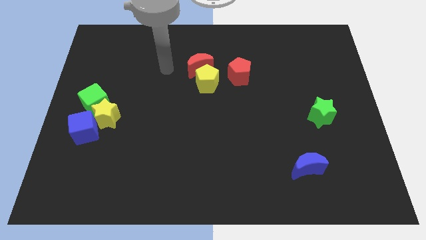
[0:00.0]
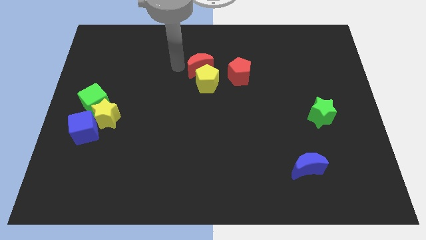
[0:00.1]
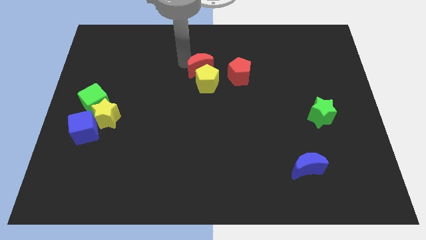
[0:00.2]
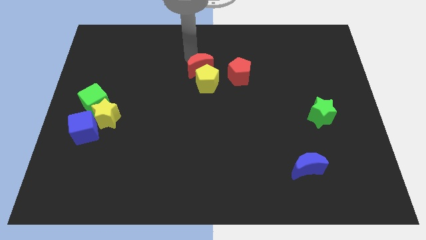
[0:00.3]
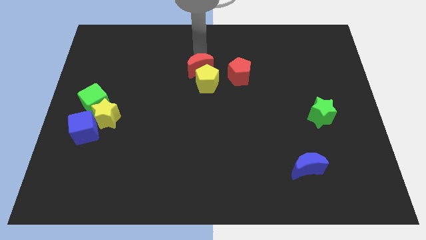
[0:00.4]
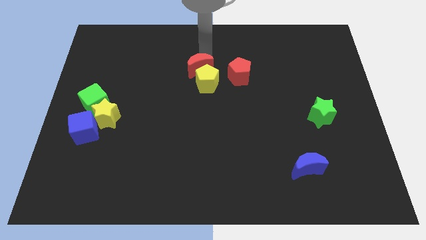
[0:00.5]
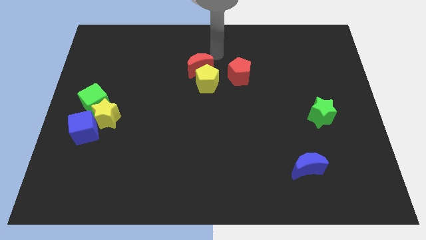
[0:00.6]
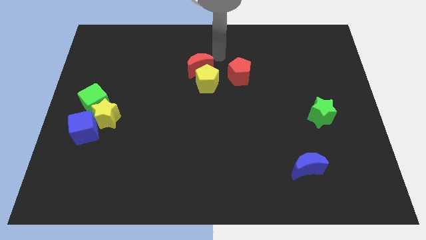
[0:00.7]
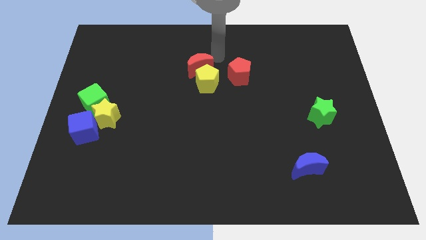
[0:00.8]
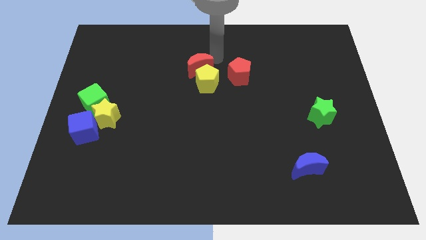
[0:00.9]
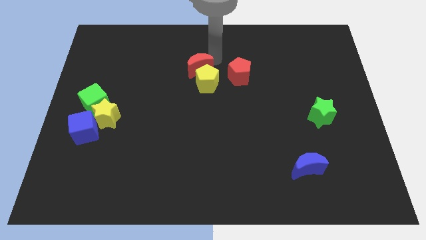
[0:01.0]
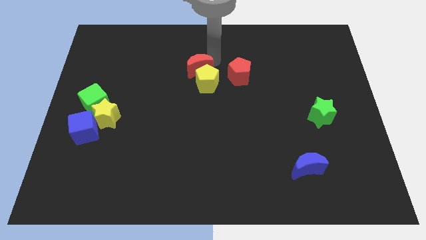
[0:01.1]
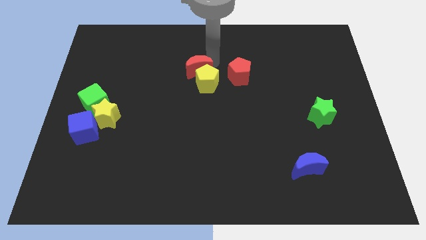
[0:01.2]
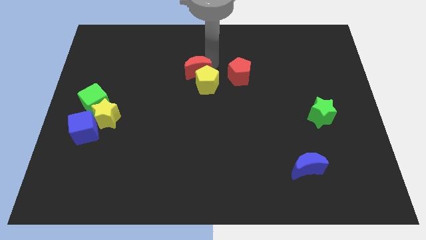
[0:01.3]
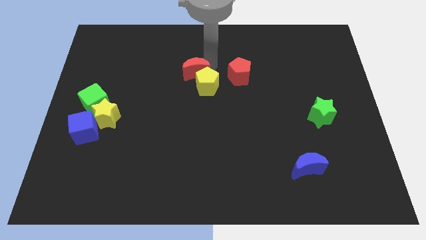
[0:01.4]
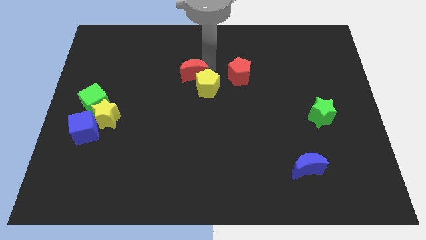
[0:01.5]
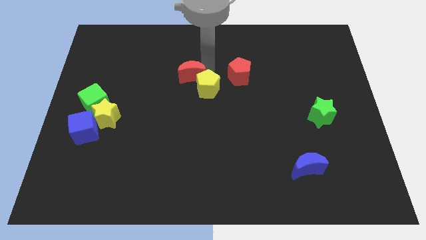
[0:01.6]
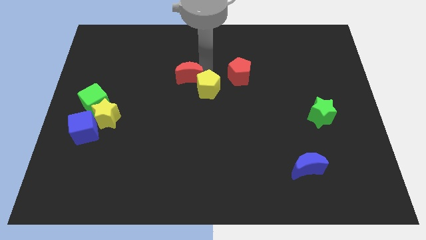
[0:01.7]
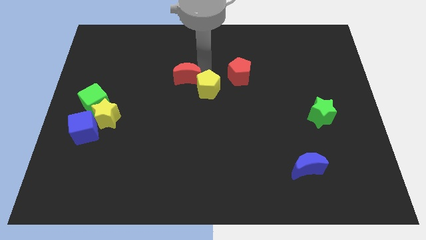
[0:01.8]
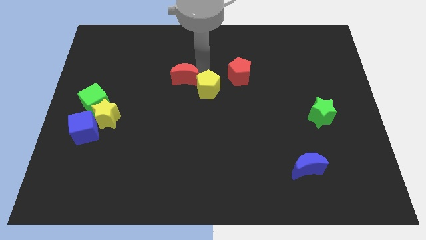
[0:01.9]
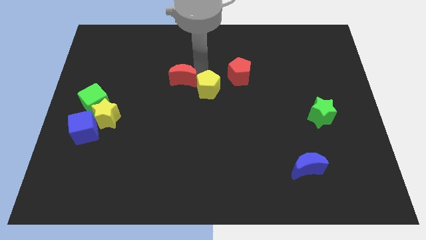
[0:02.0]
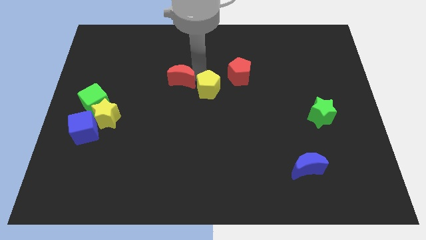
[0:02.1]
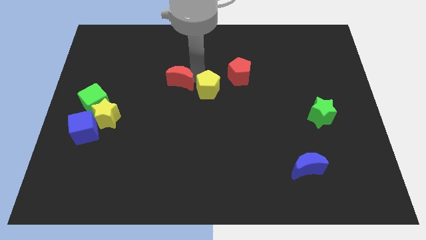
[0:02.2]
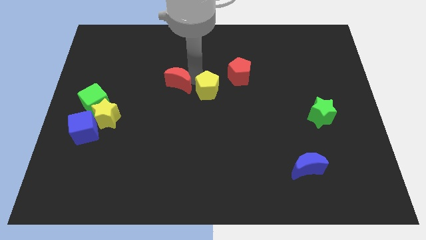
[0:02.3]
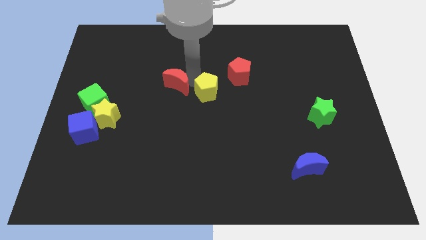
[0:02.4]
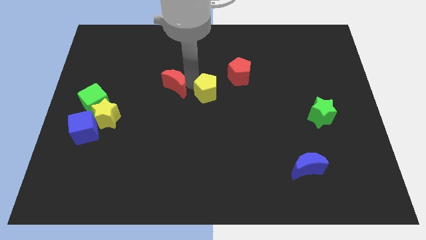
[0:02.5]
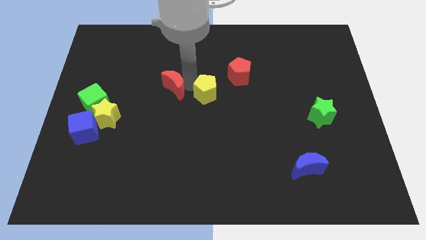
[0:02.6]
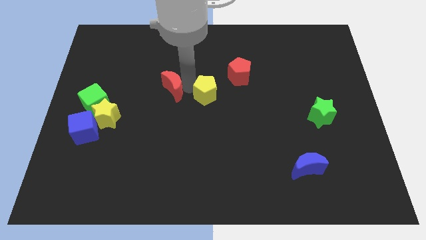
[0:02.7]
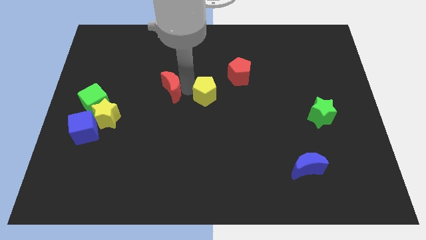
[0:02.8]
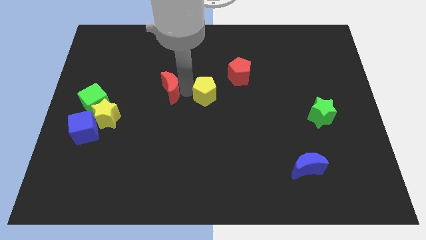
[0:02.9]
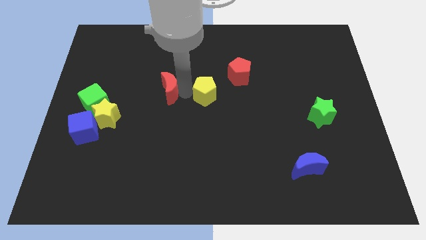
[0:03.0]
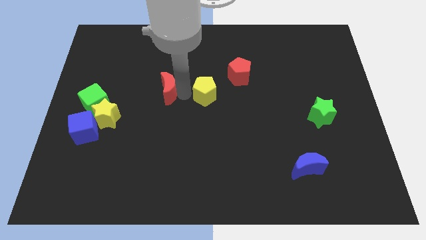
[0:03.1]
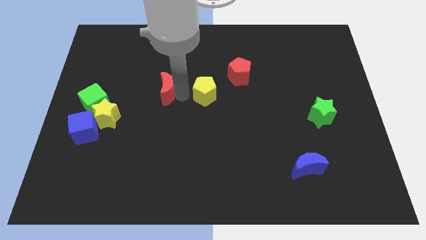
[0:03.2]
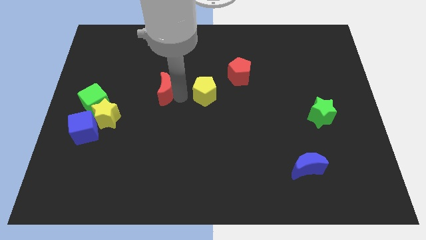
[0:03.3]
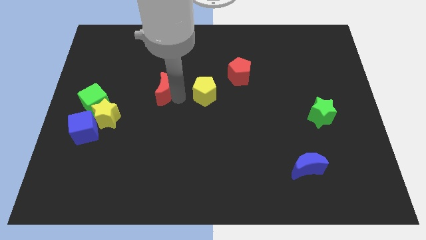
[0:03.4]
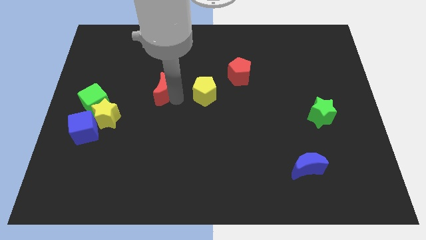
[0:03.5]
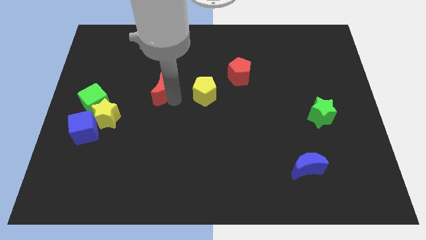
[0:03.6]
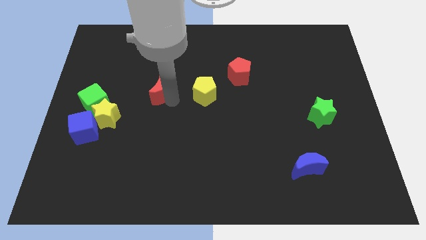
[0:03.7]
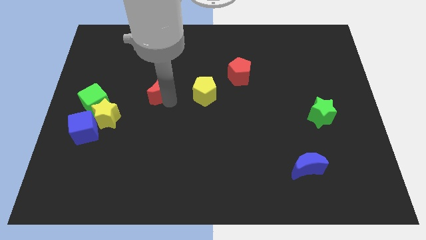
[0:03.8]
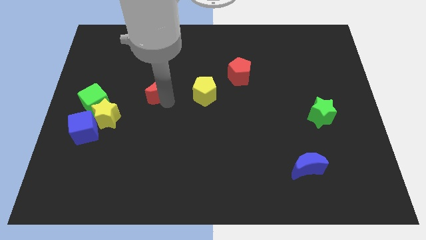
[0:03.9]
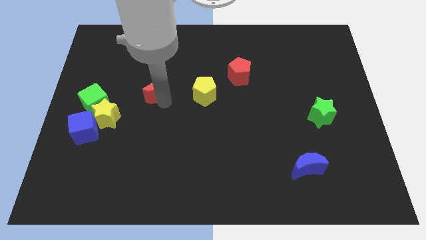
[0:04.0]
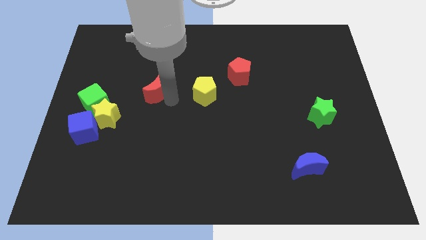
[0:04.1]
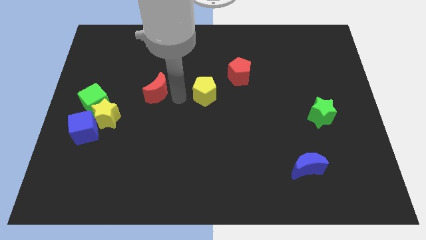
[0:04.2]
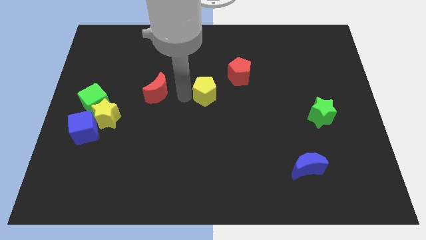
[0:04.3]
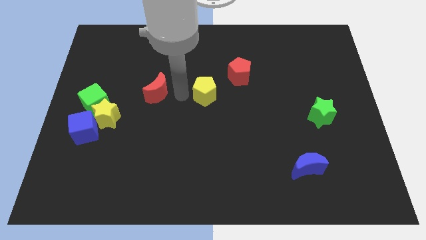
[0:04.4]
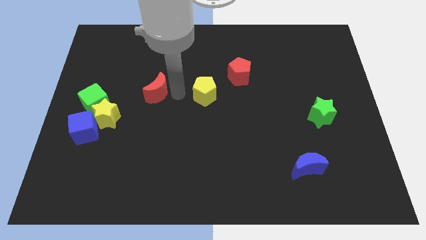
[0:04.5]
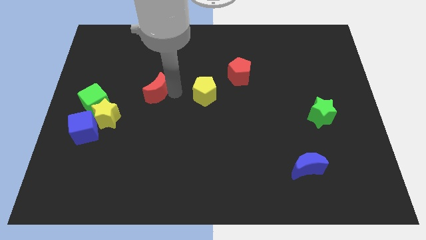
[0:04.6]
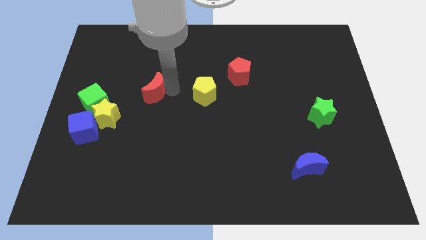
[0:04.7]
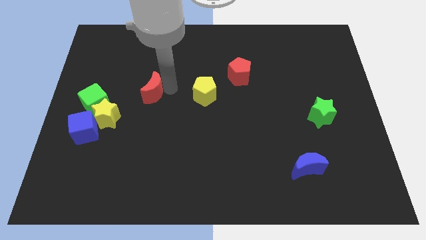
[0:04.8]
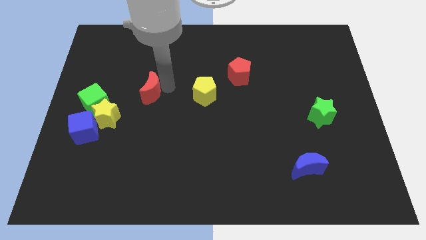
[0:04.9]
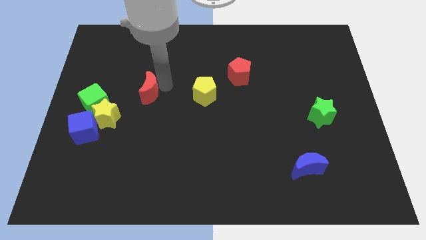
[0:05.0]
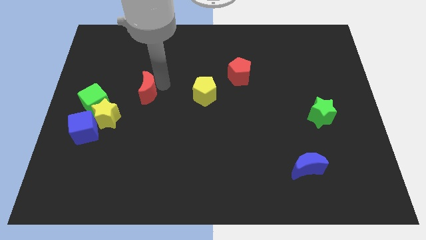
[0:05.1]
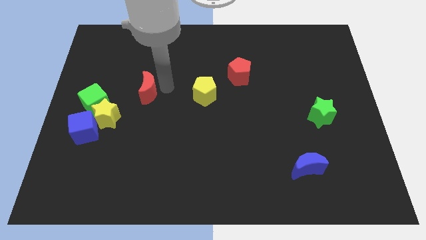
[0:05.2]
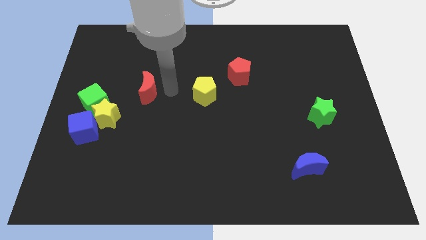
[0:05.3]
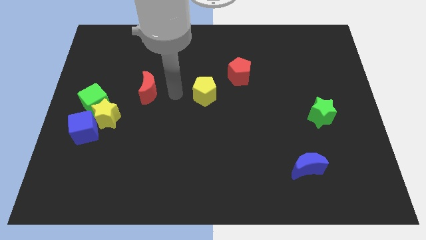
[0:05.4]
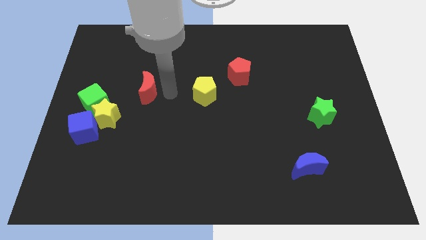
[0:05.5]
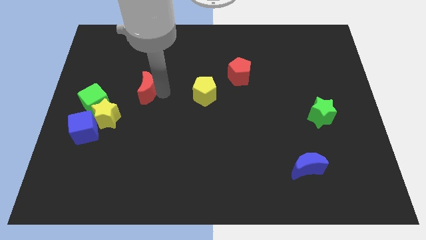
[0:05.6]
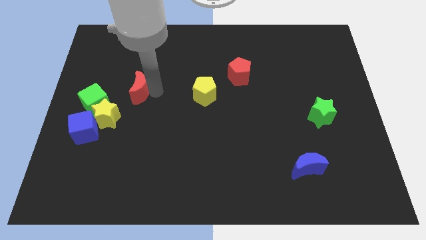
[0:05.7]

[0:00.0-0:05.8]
push the red moon to the top right of the green cube

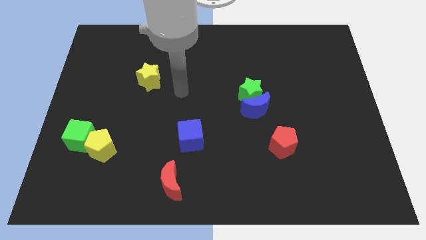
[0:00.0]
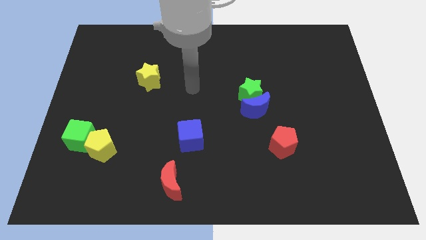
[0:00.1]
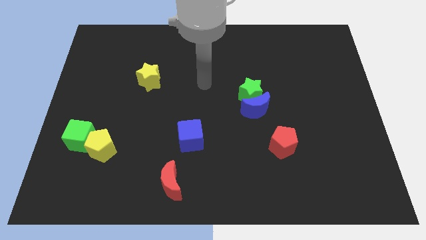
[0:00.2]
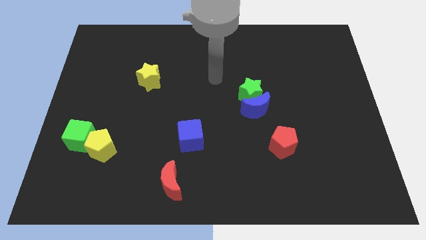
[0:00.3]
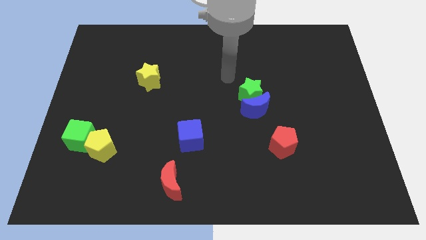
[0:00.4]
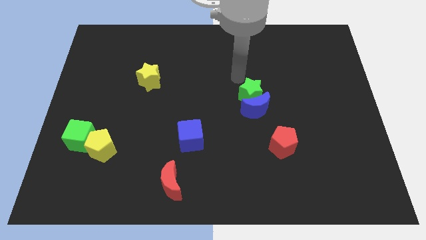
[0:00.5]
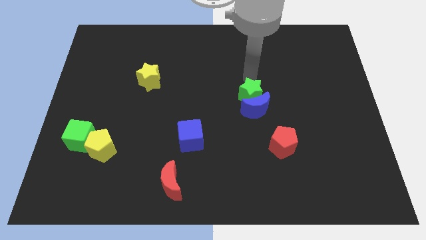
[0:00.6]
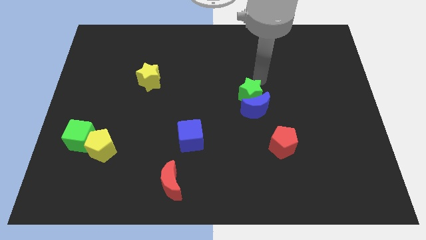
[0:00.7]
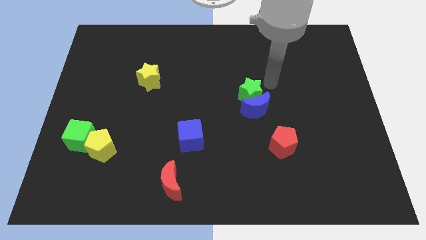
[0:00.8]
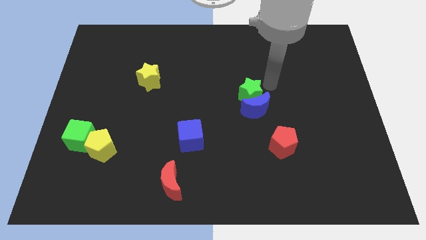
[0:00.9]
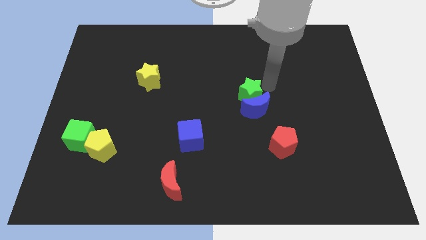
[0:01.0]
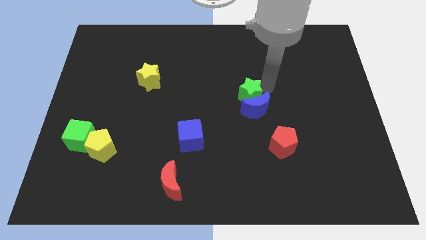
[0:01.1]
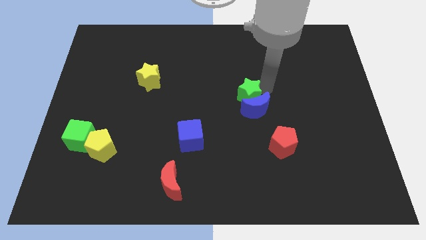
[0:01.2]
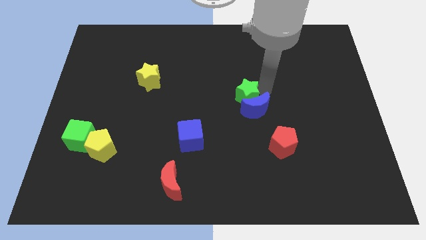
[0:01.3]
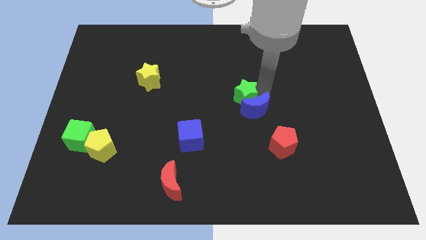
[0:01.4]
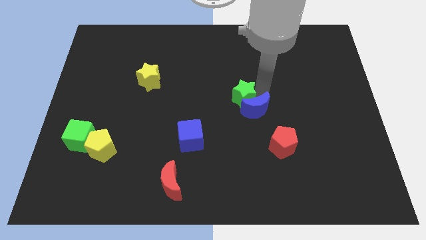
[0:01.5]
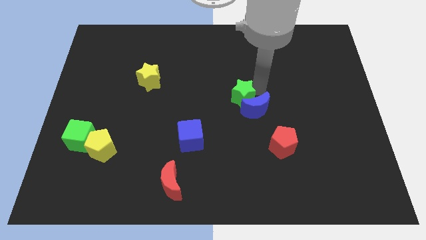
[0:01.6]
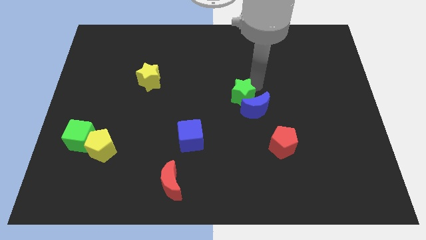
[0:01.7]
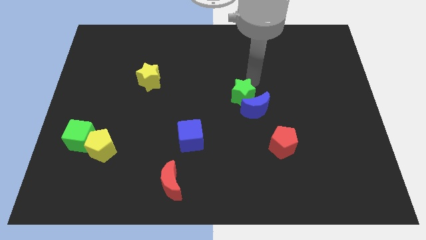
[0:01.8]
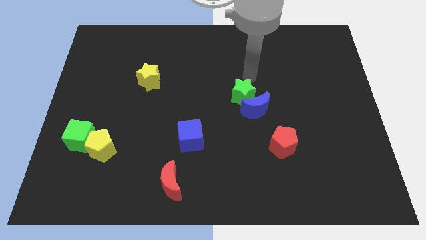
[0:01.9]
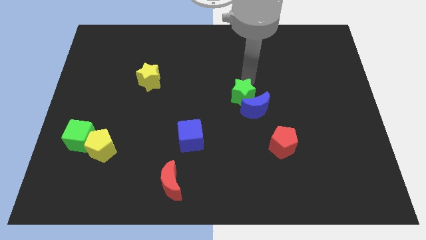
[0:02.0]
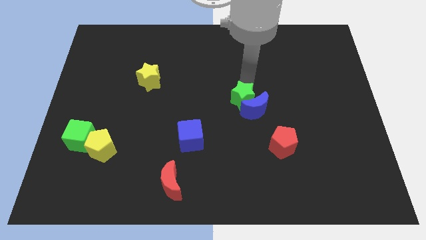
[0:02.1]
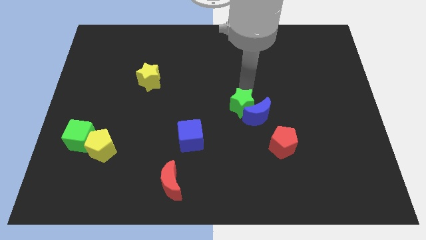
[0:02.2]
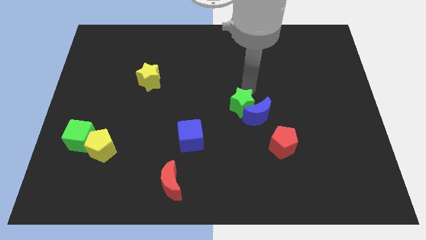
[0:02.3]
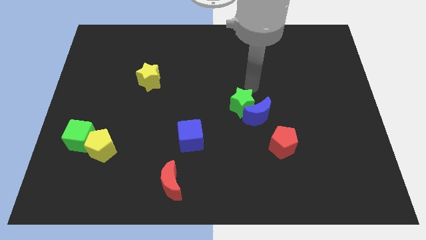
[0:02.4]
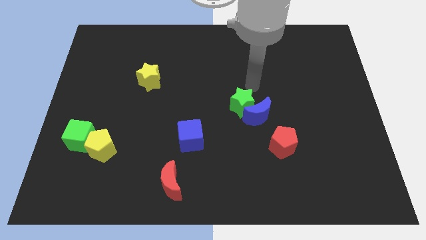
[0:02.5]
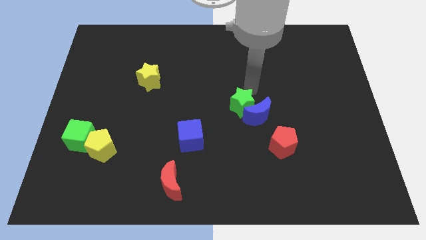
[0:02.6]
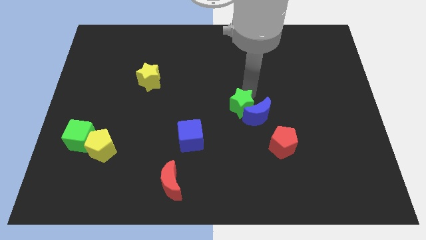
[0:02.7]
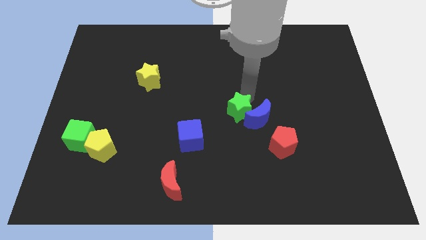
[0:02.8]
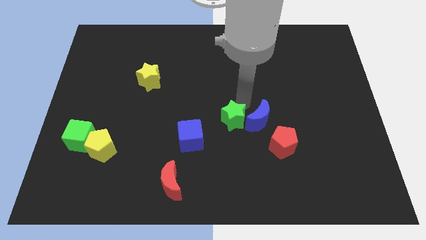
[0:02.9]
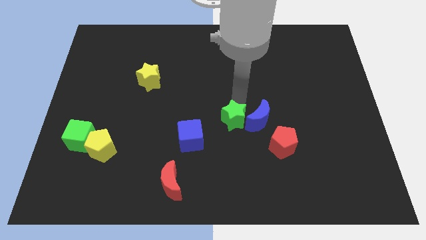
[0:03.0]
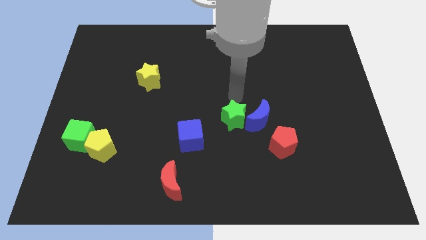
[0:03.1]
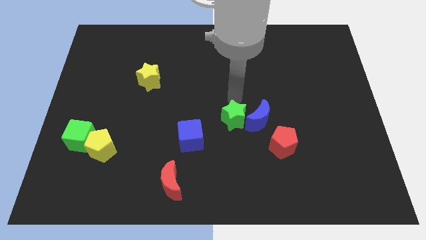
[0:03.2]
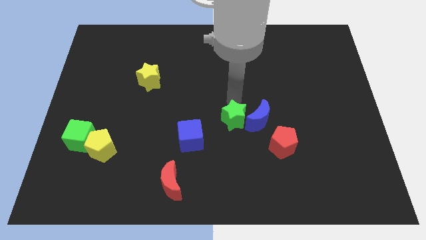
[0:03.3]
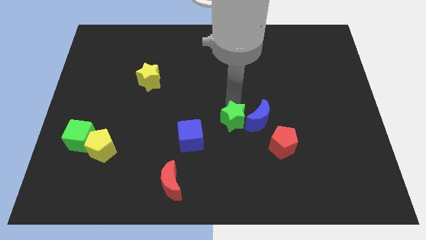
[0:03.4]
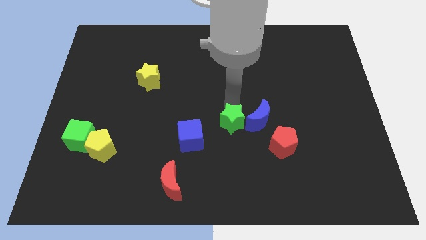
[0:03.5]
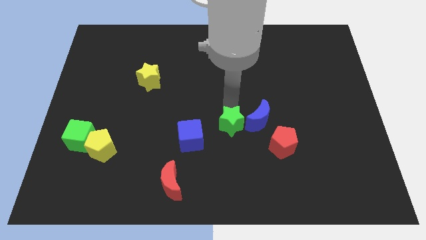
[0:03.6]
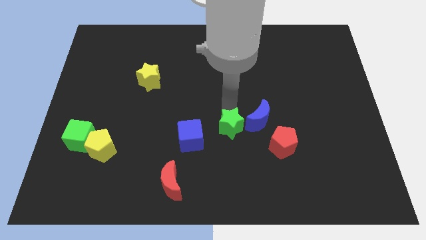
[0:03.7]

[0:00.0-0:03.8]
slide the green star left of the red pentagon
